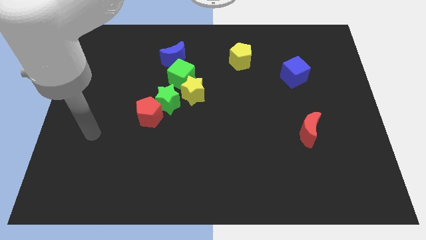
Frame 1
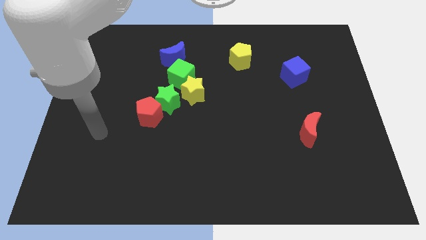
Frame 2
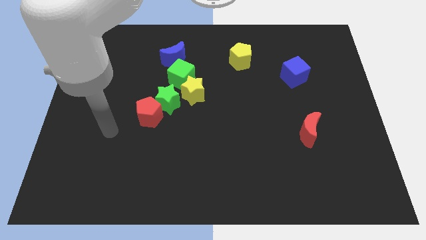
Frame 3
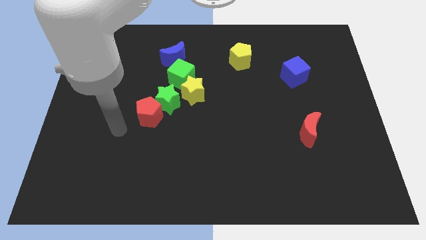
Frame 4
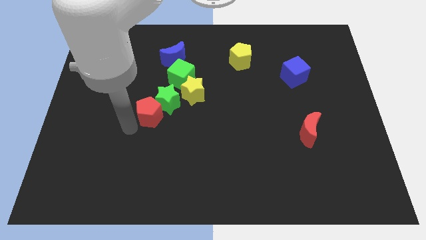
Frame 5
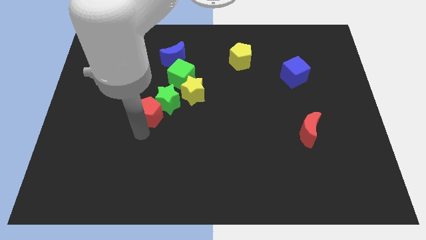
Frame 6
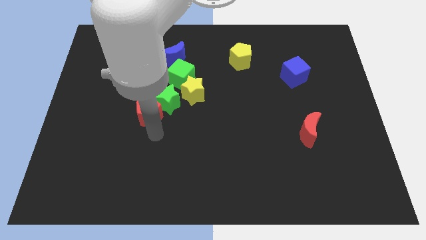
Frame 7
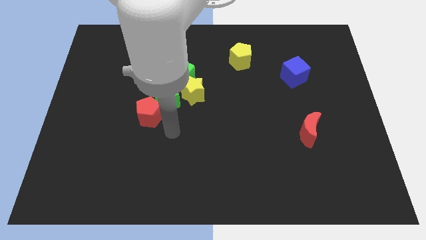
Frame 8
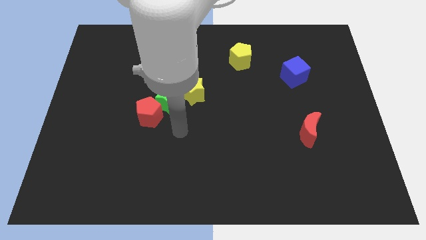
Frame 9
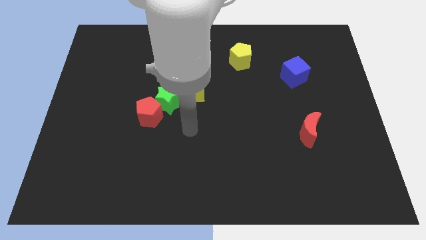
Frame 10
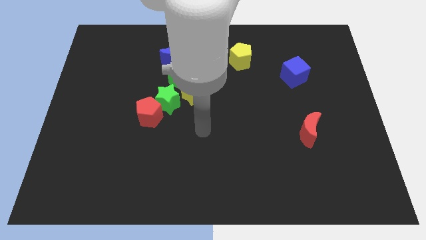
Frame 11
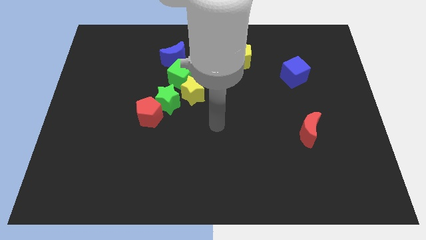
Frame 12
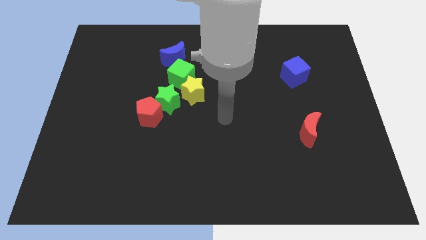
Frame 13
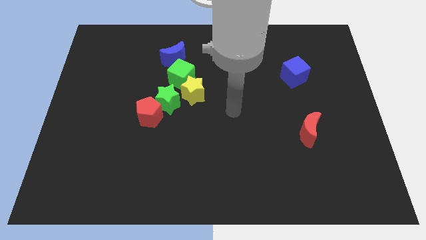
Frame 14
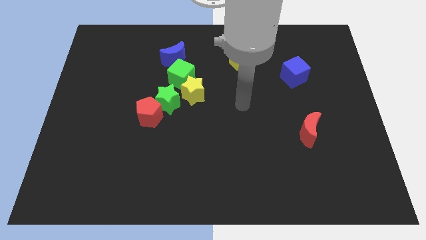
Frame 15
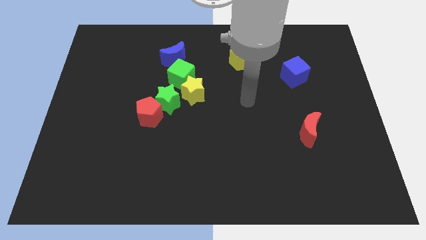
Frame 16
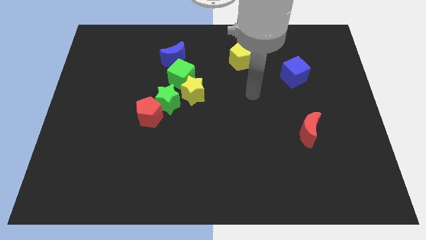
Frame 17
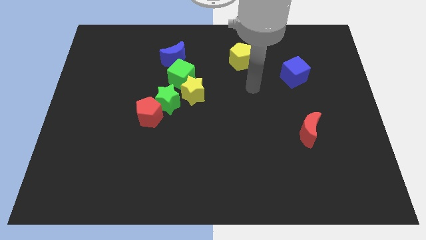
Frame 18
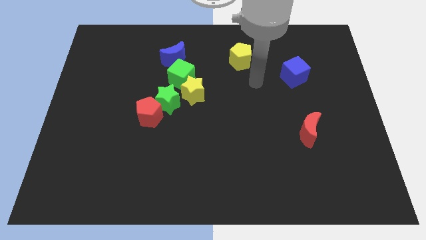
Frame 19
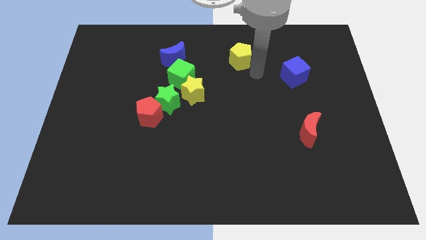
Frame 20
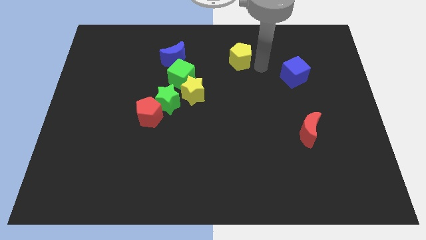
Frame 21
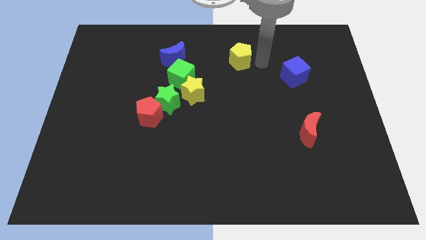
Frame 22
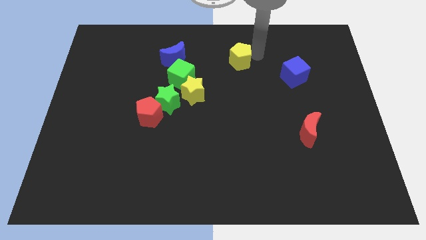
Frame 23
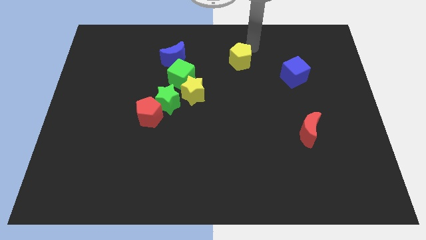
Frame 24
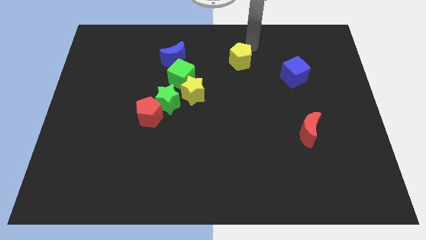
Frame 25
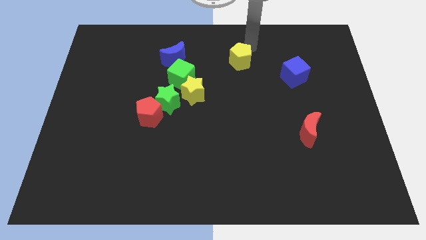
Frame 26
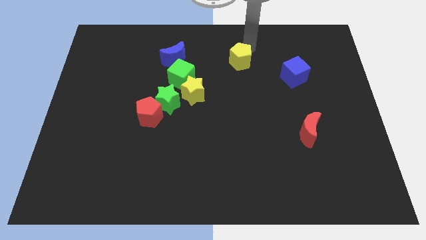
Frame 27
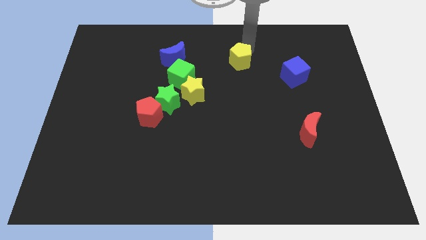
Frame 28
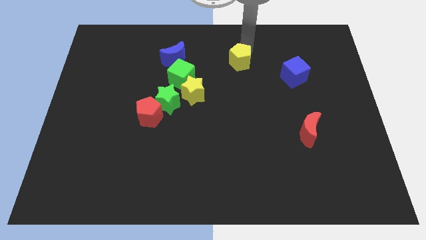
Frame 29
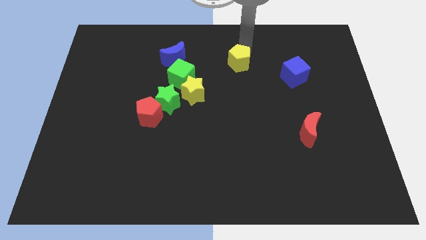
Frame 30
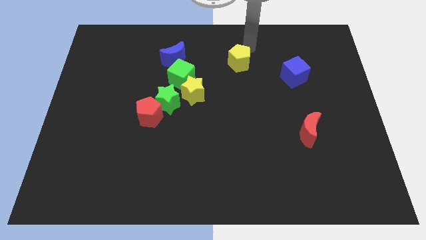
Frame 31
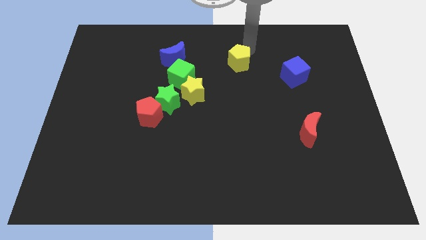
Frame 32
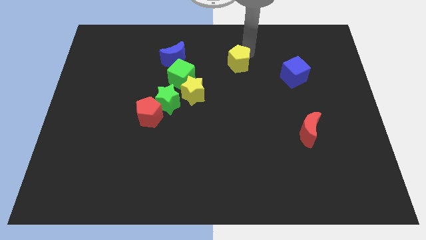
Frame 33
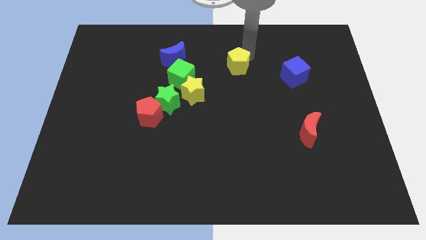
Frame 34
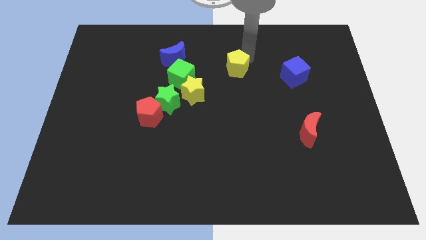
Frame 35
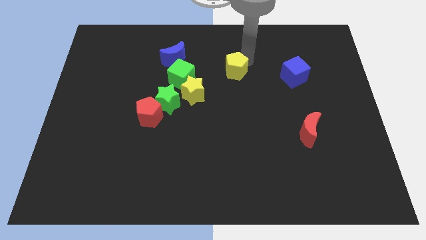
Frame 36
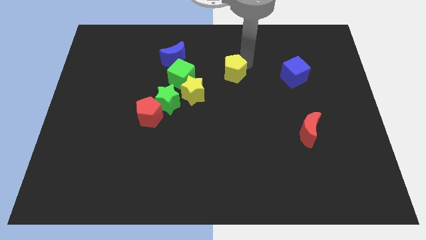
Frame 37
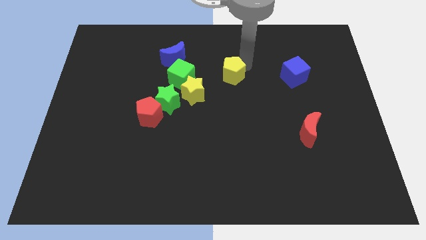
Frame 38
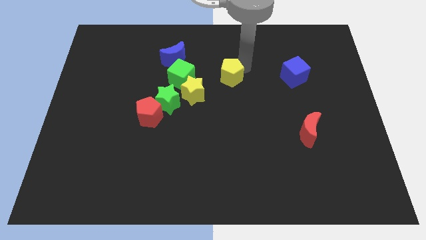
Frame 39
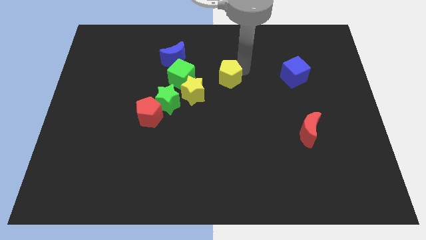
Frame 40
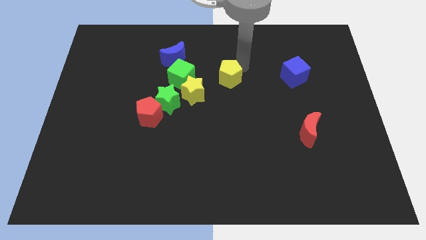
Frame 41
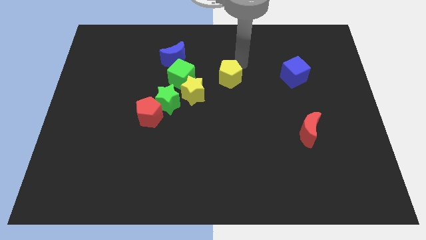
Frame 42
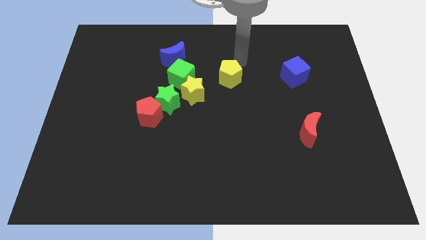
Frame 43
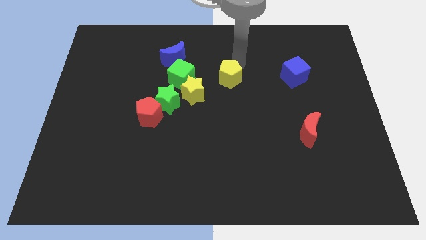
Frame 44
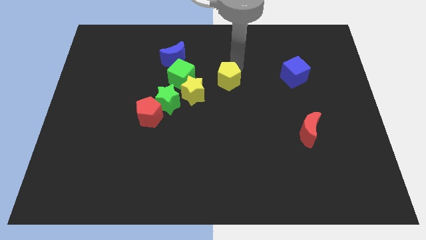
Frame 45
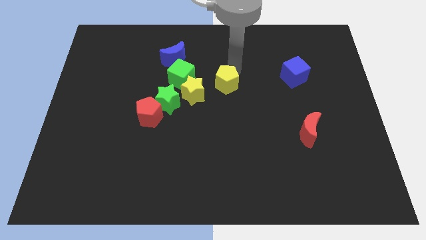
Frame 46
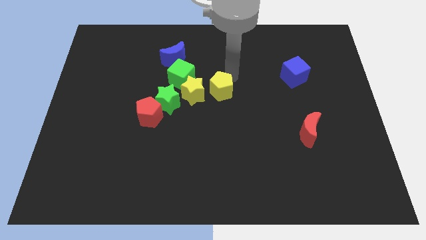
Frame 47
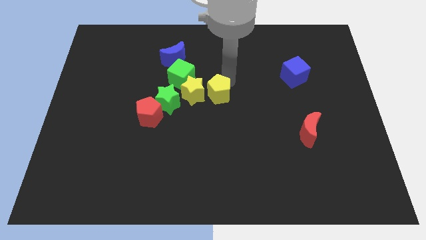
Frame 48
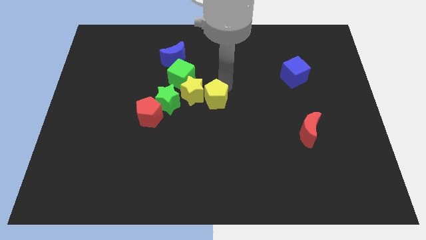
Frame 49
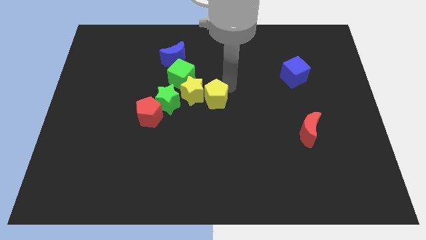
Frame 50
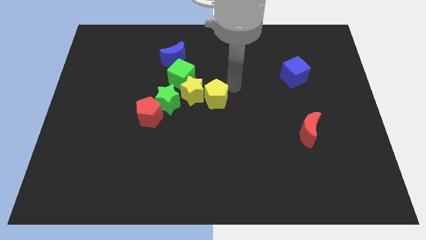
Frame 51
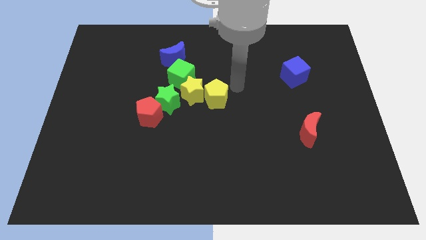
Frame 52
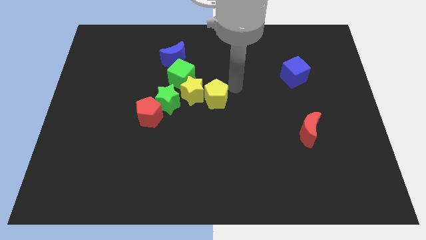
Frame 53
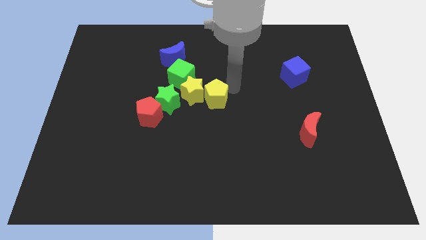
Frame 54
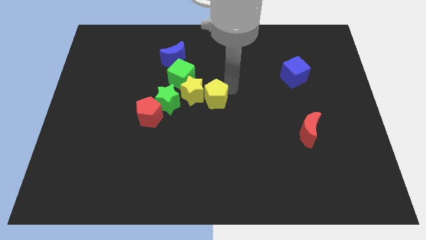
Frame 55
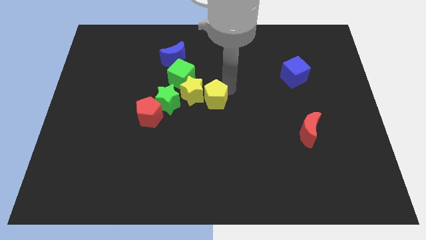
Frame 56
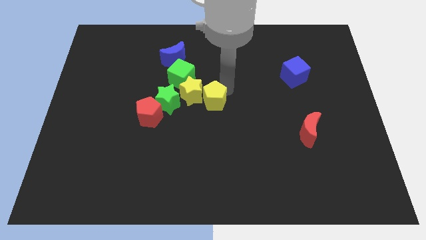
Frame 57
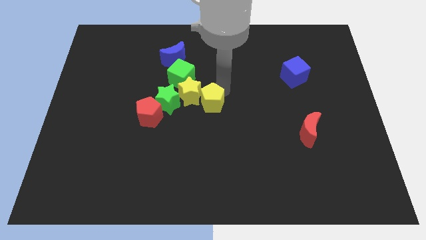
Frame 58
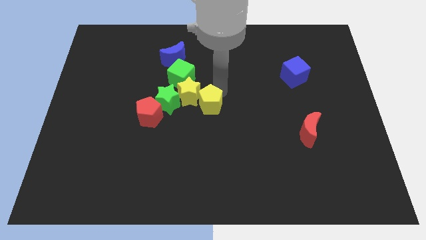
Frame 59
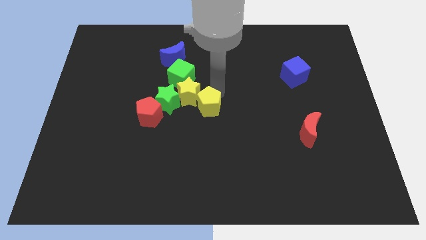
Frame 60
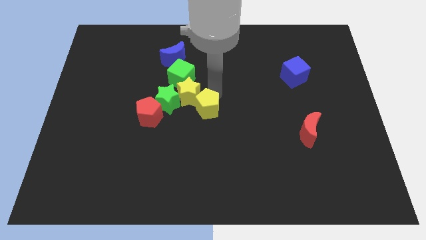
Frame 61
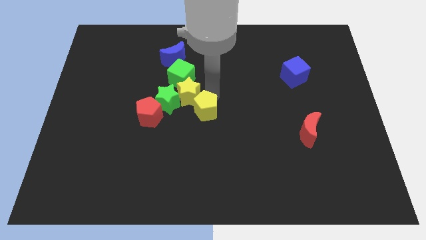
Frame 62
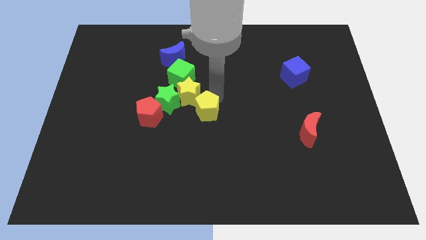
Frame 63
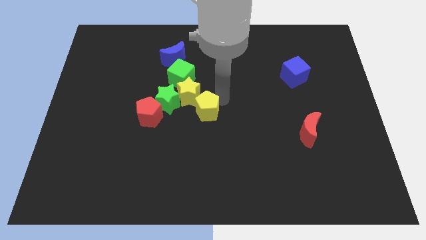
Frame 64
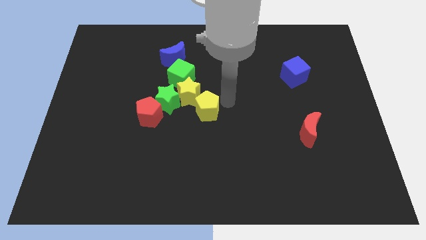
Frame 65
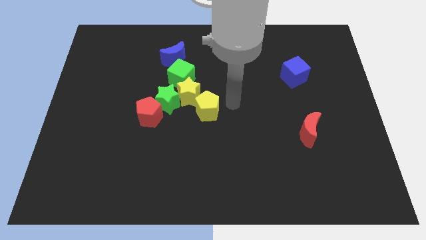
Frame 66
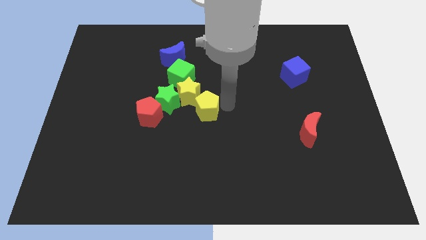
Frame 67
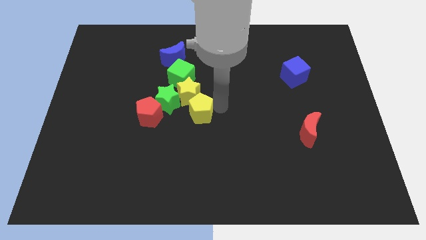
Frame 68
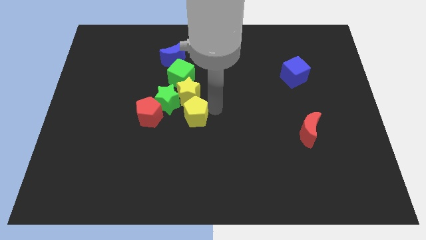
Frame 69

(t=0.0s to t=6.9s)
move the yellow pentagon downwards and then left

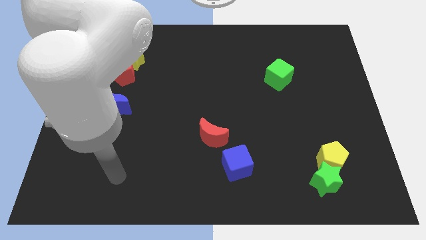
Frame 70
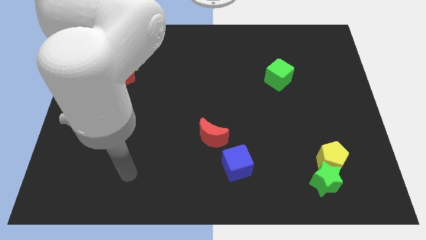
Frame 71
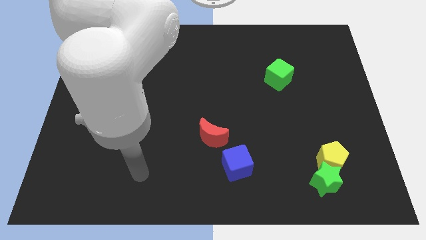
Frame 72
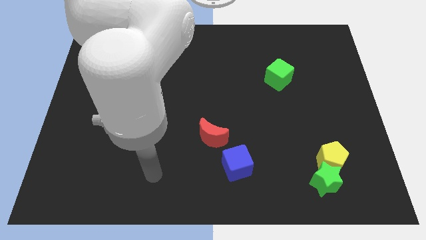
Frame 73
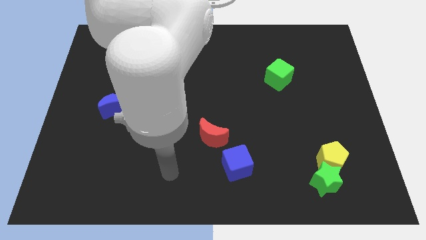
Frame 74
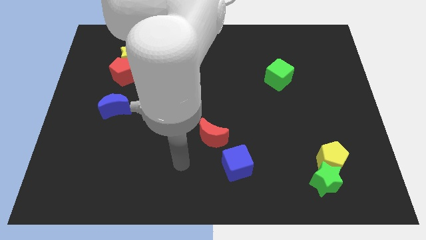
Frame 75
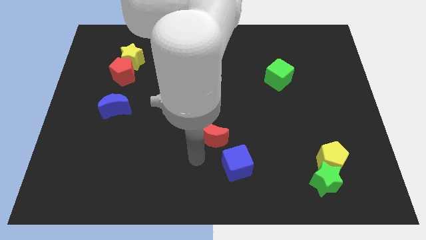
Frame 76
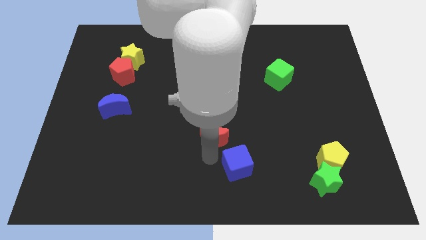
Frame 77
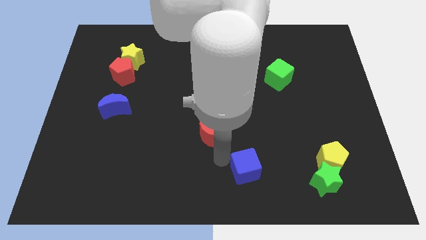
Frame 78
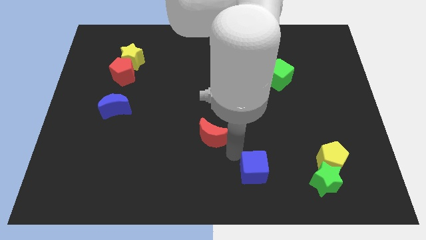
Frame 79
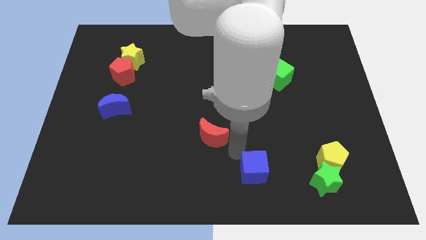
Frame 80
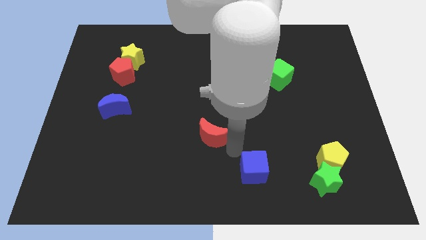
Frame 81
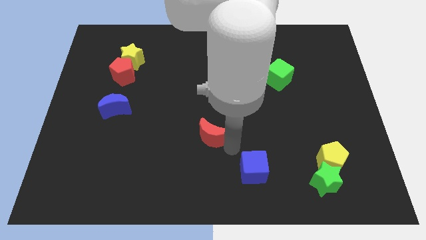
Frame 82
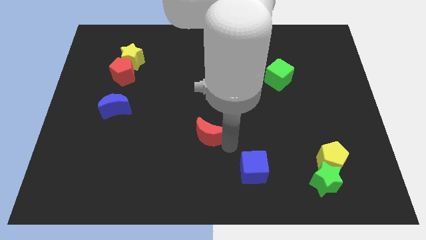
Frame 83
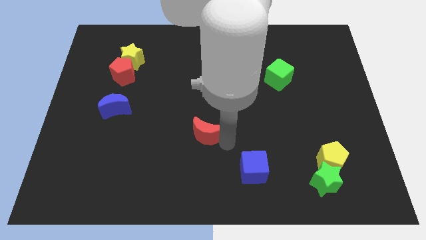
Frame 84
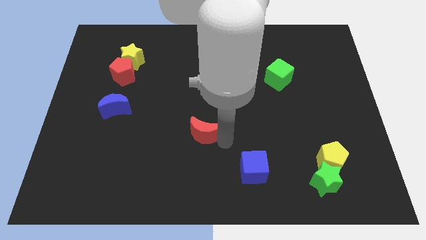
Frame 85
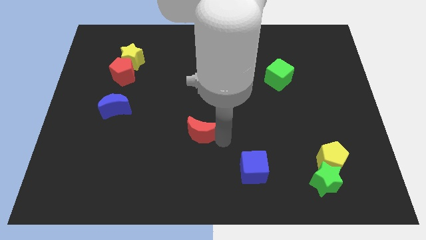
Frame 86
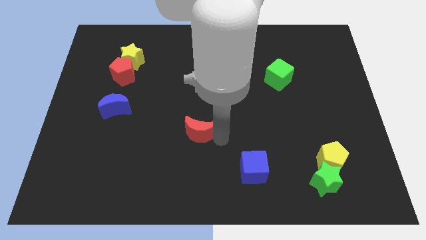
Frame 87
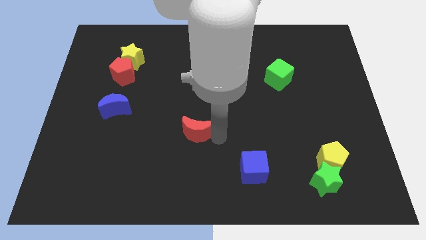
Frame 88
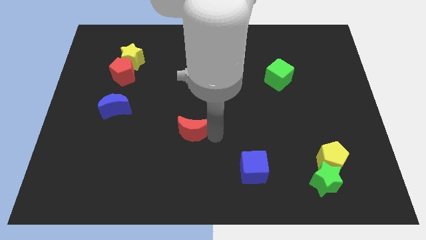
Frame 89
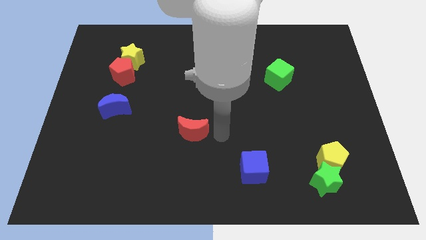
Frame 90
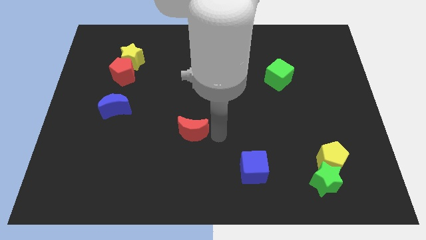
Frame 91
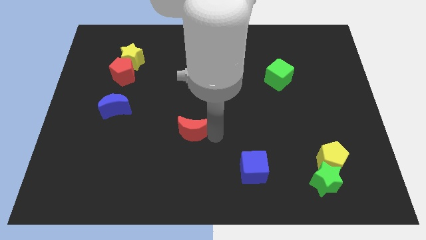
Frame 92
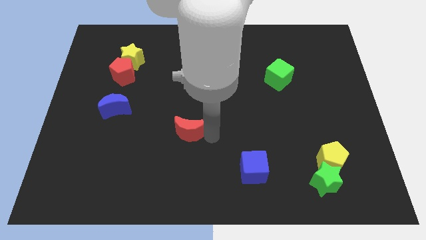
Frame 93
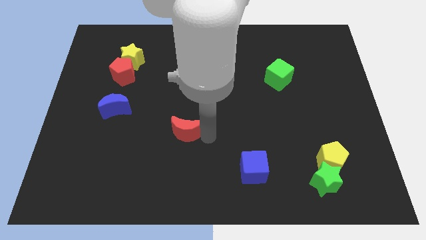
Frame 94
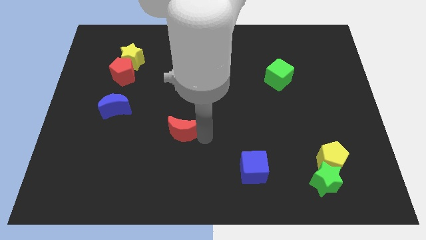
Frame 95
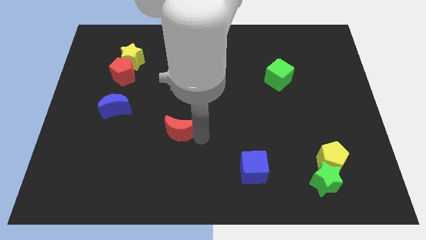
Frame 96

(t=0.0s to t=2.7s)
push the red moon to the left a bit
